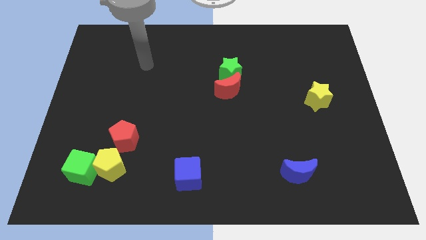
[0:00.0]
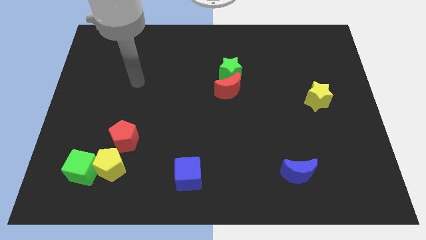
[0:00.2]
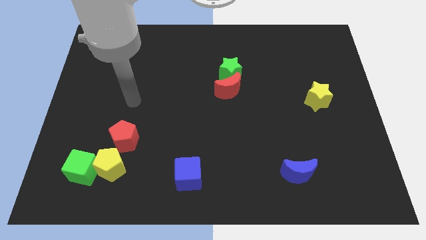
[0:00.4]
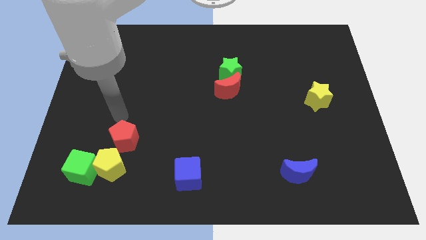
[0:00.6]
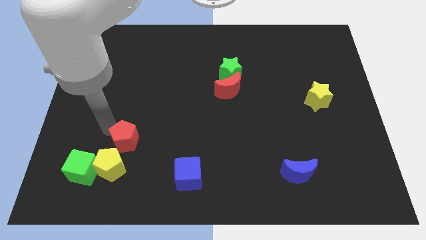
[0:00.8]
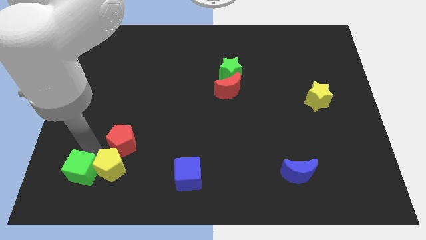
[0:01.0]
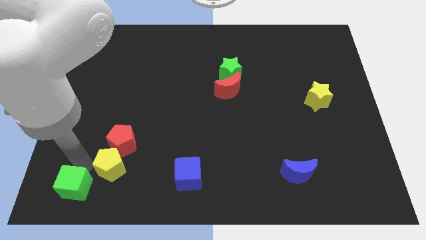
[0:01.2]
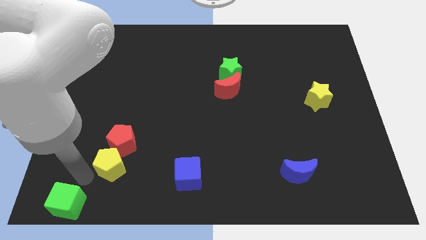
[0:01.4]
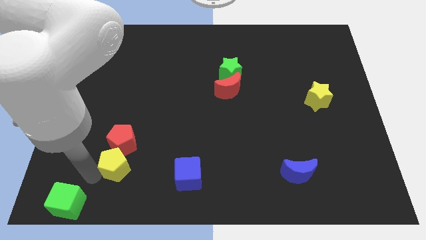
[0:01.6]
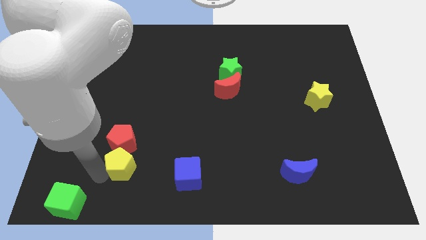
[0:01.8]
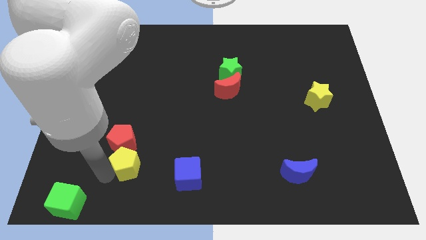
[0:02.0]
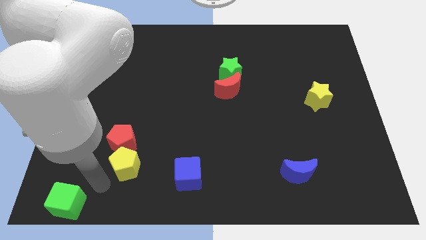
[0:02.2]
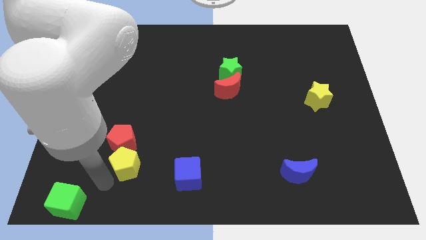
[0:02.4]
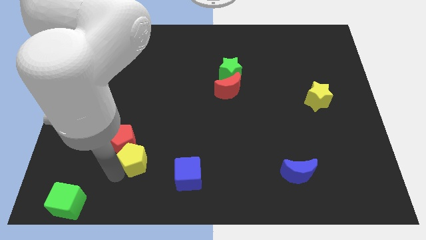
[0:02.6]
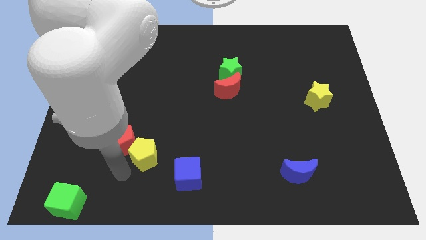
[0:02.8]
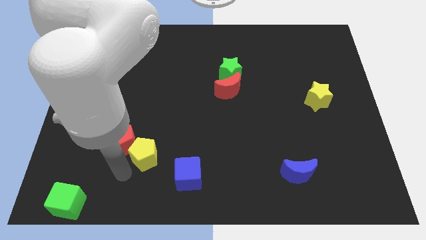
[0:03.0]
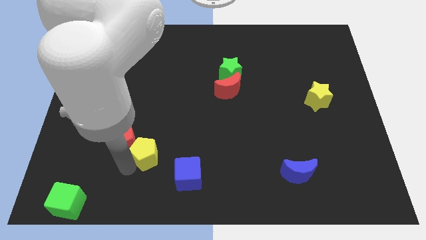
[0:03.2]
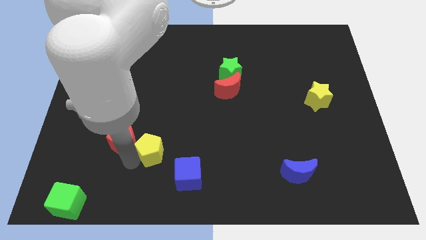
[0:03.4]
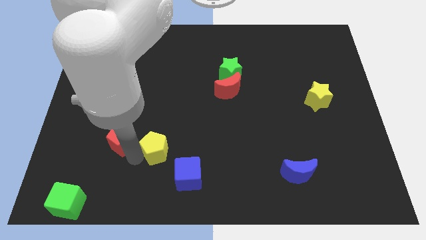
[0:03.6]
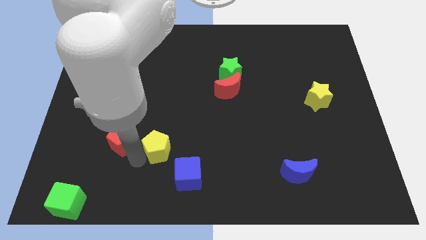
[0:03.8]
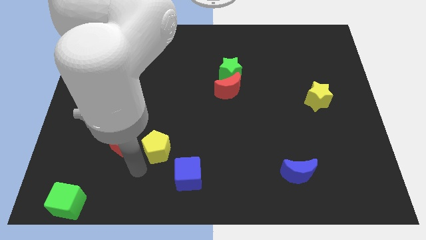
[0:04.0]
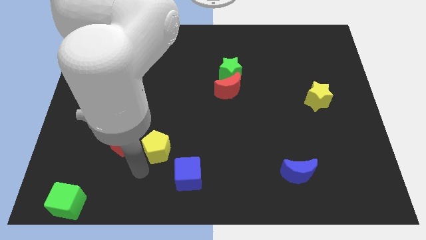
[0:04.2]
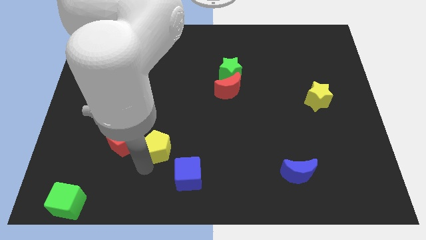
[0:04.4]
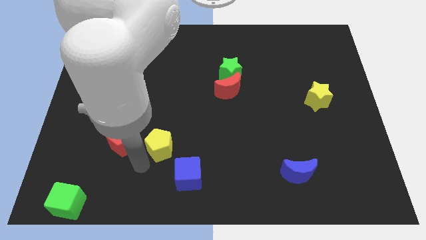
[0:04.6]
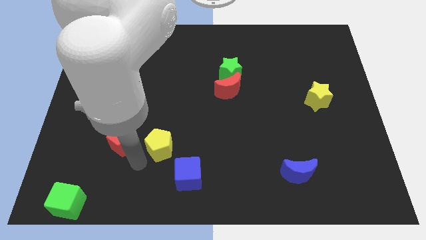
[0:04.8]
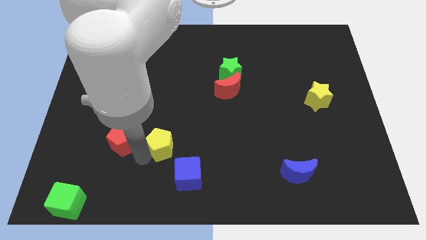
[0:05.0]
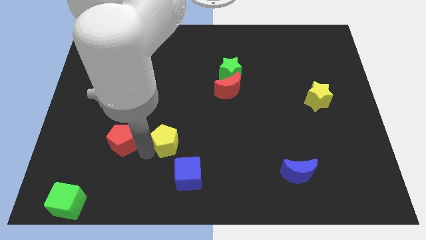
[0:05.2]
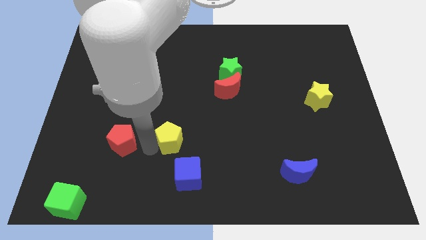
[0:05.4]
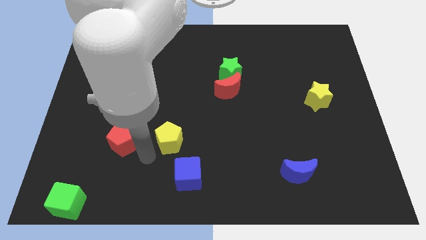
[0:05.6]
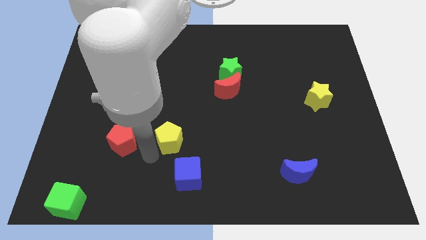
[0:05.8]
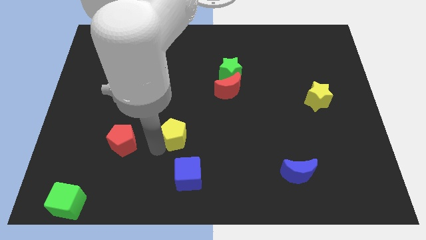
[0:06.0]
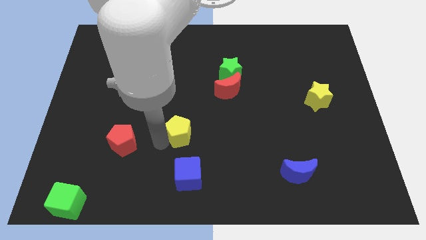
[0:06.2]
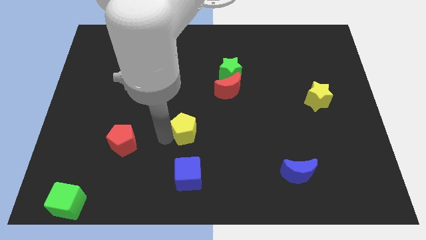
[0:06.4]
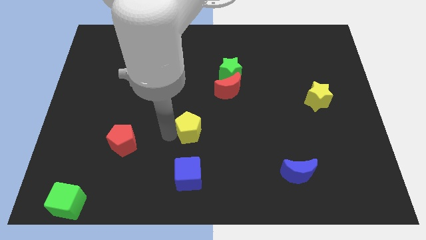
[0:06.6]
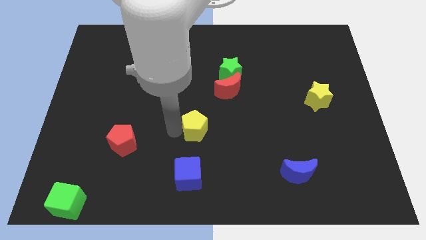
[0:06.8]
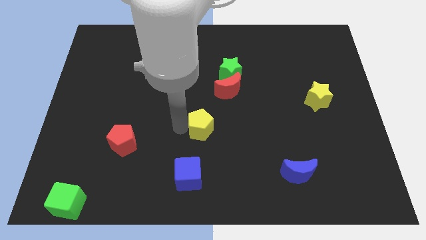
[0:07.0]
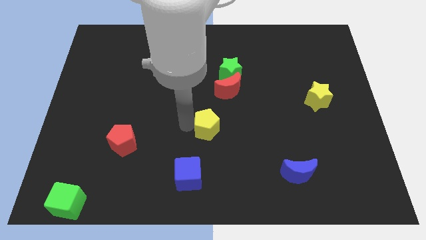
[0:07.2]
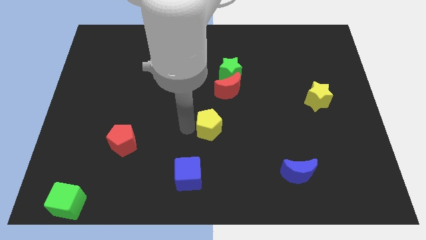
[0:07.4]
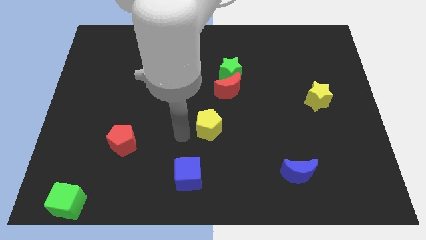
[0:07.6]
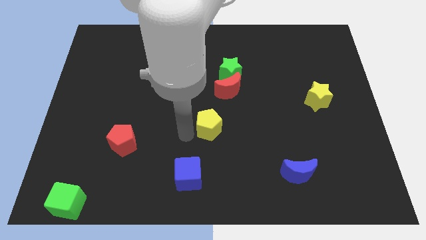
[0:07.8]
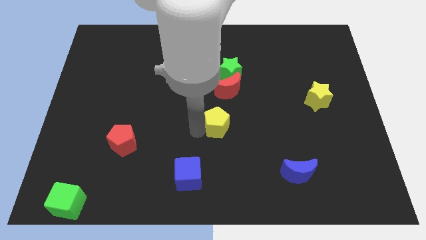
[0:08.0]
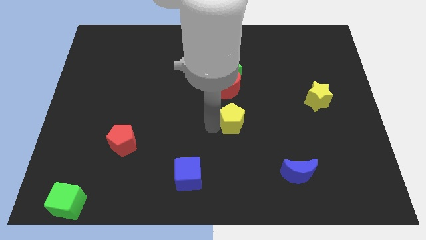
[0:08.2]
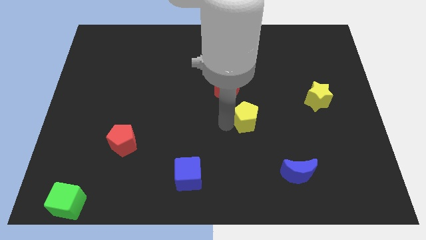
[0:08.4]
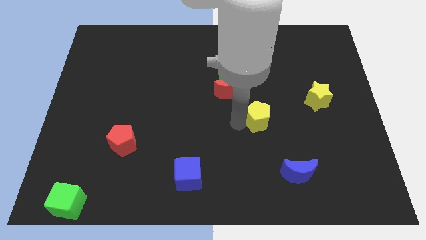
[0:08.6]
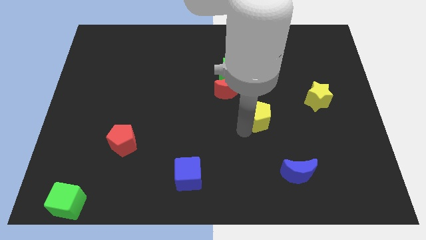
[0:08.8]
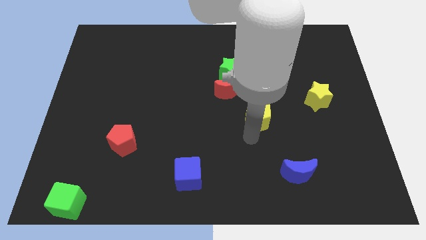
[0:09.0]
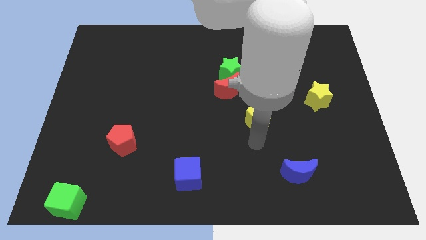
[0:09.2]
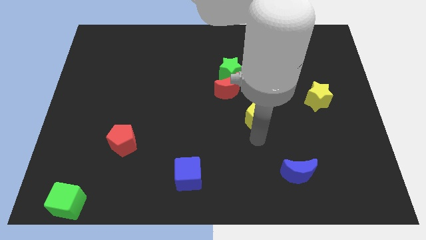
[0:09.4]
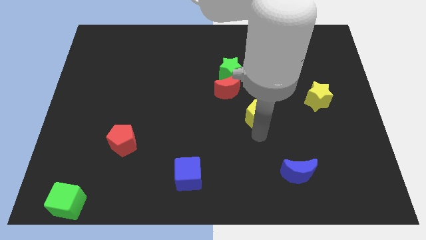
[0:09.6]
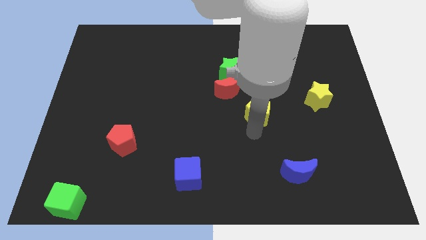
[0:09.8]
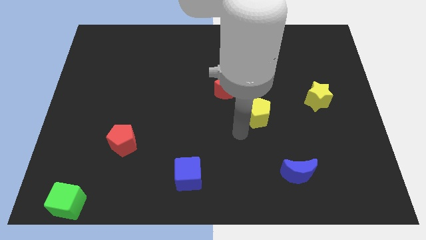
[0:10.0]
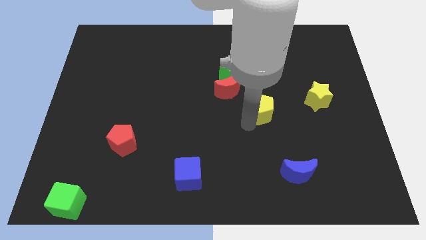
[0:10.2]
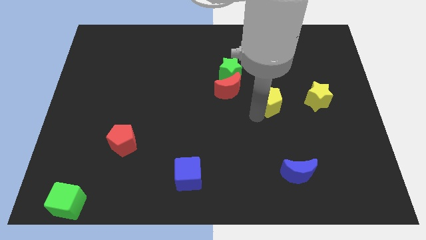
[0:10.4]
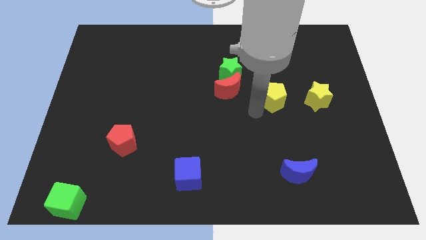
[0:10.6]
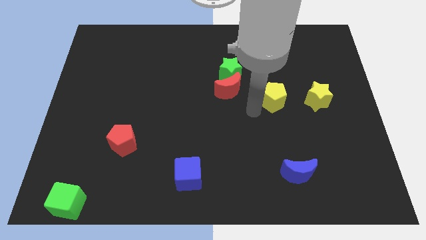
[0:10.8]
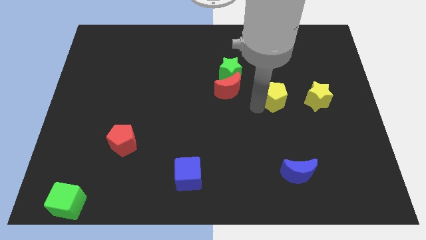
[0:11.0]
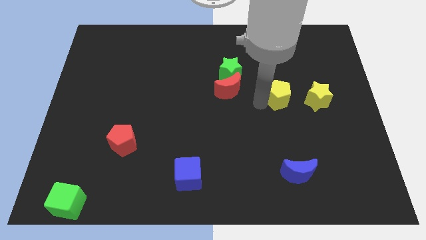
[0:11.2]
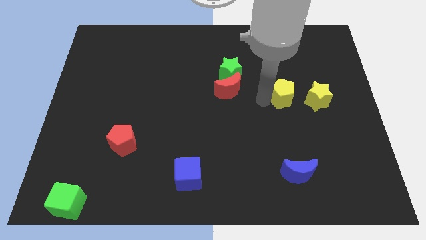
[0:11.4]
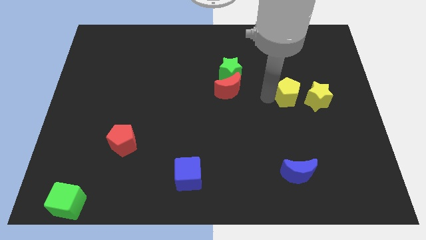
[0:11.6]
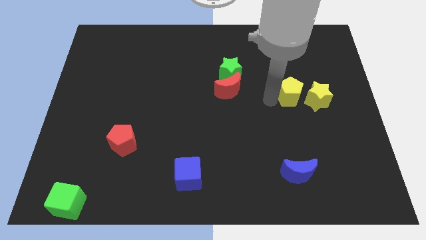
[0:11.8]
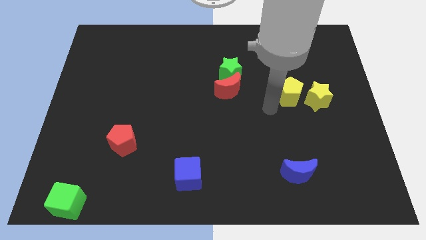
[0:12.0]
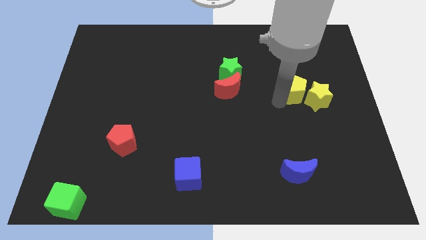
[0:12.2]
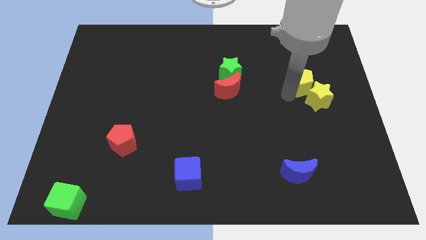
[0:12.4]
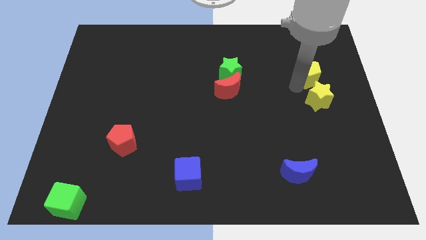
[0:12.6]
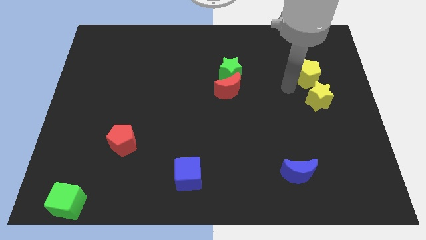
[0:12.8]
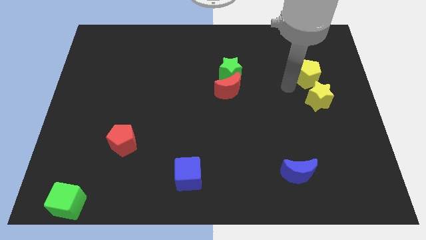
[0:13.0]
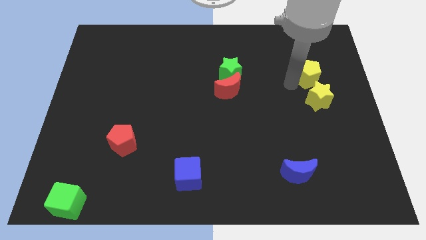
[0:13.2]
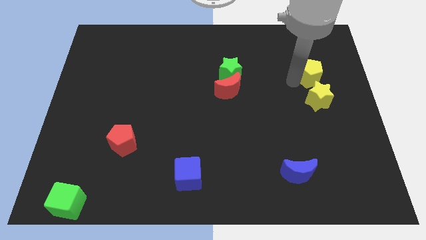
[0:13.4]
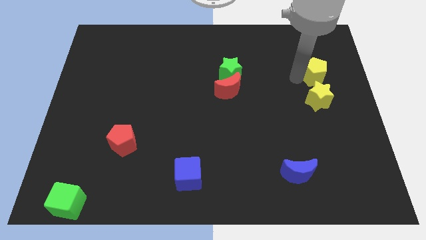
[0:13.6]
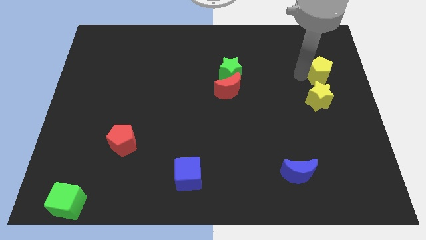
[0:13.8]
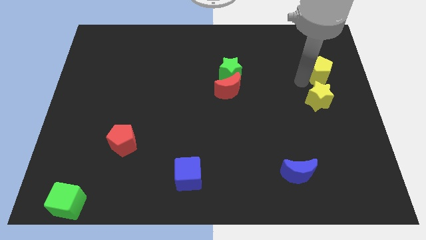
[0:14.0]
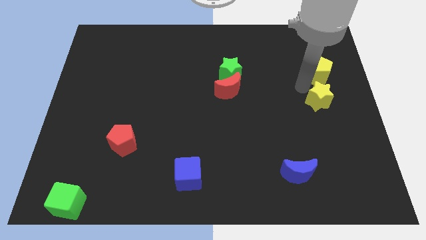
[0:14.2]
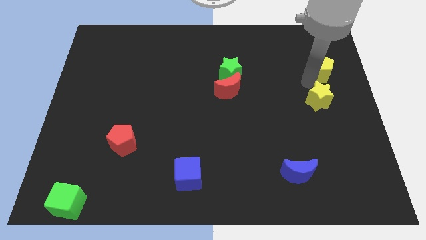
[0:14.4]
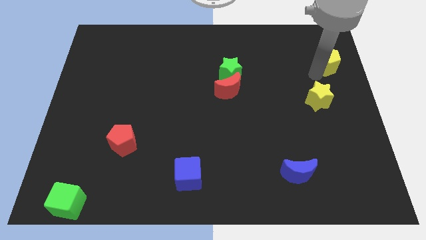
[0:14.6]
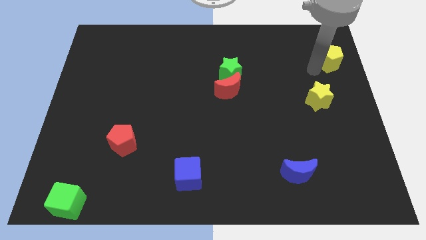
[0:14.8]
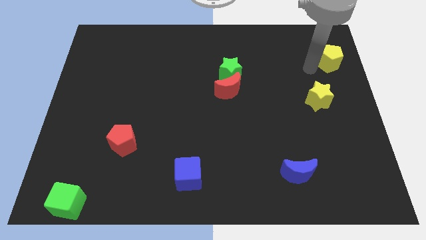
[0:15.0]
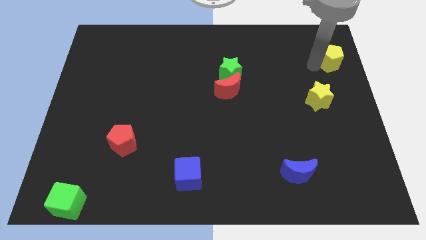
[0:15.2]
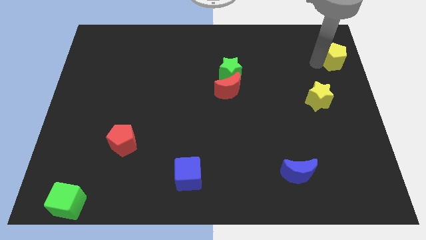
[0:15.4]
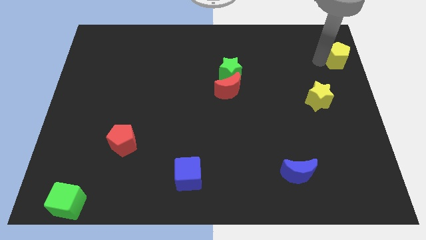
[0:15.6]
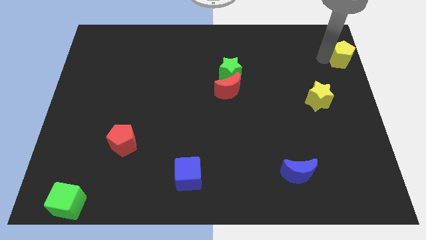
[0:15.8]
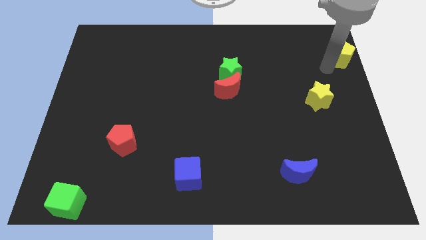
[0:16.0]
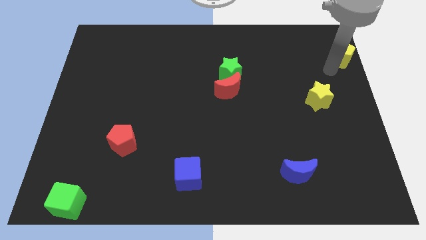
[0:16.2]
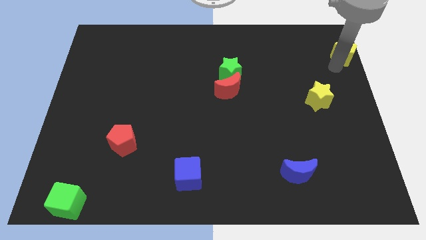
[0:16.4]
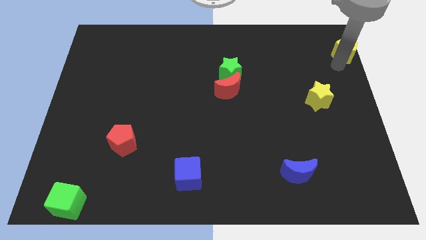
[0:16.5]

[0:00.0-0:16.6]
move the yellow pentagon to the upper right corner
